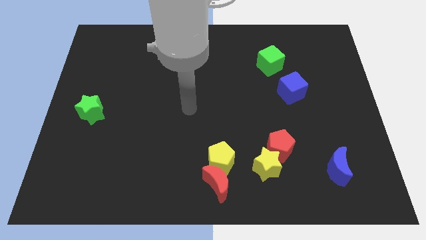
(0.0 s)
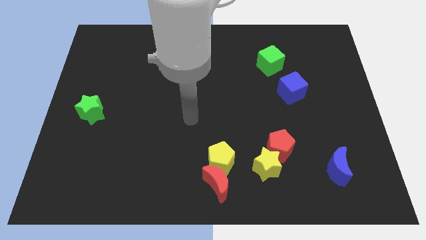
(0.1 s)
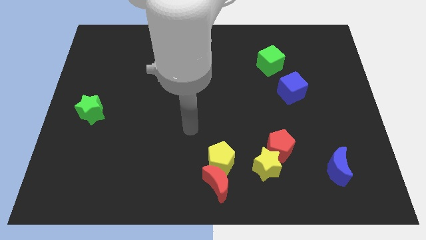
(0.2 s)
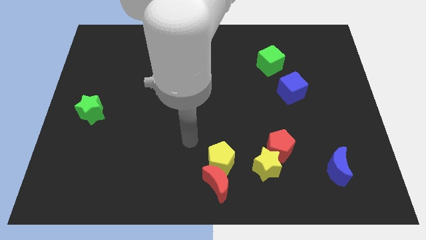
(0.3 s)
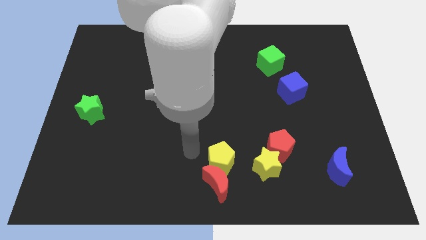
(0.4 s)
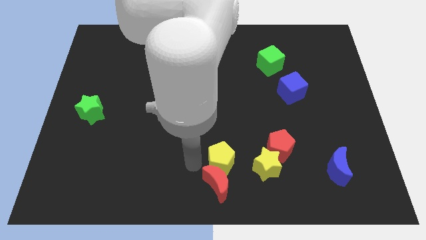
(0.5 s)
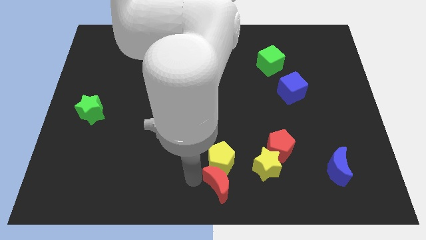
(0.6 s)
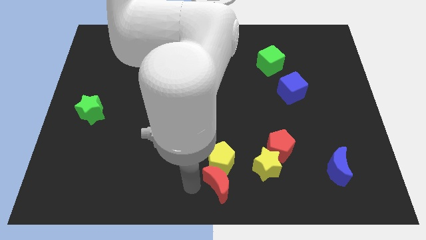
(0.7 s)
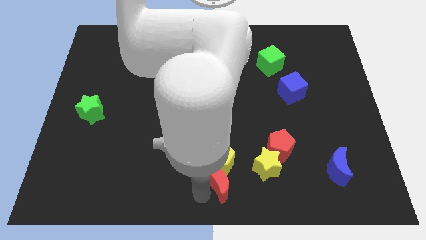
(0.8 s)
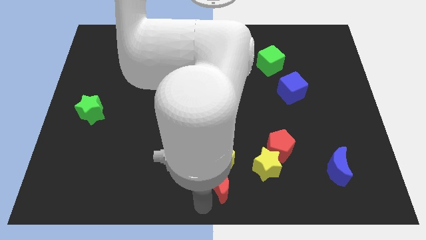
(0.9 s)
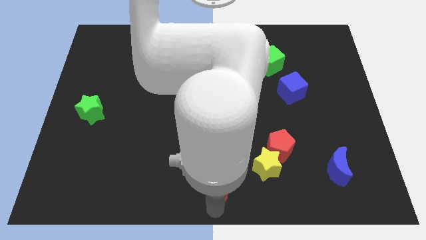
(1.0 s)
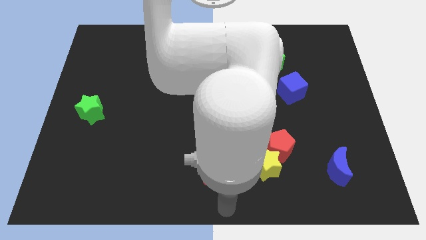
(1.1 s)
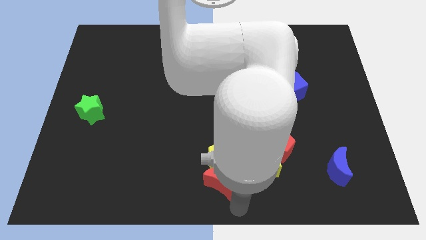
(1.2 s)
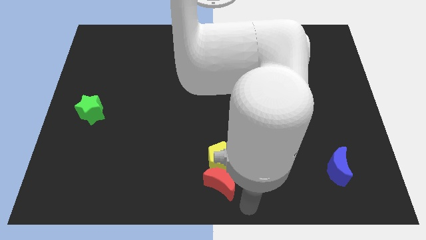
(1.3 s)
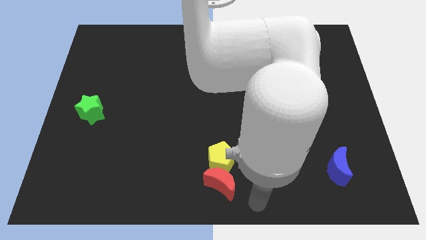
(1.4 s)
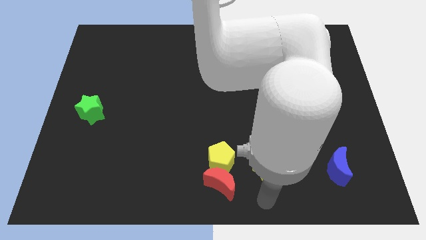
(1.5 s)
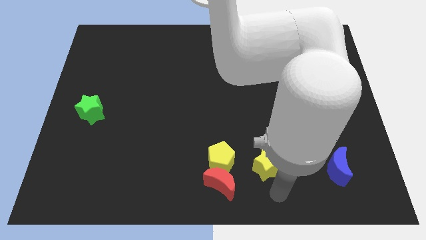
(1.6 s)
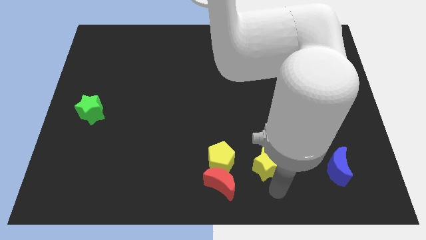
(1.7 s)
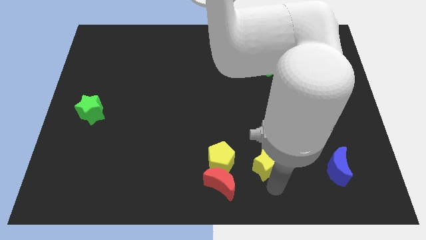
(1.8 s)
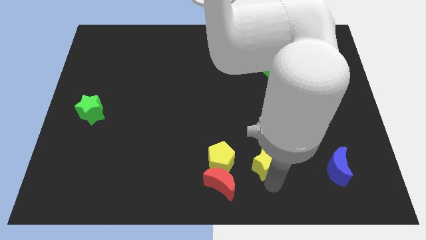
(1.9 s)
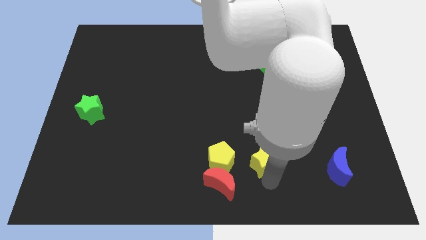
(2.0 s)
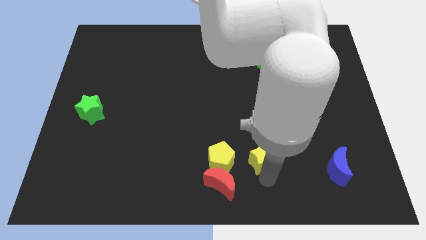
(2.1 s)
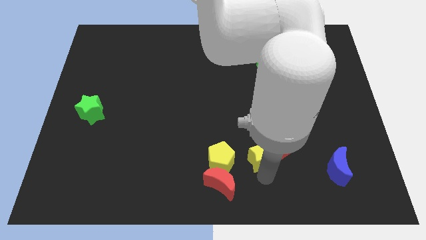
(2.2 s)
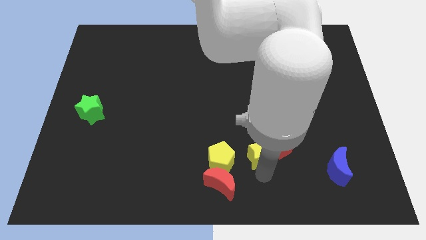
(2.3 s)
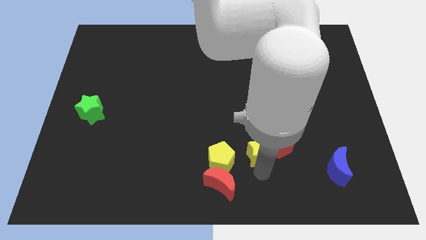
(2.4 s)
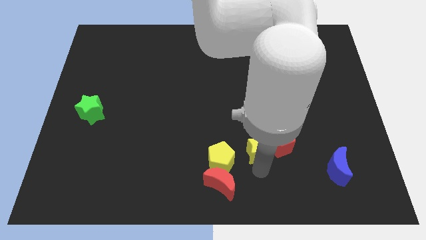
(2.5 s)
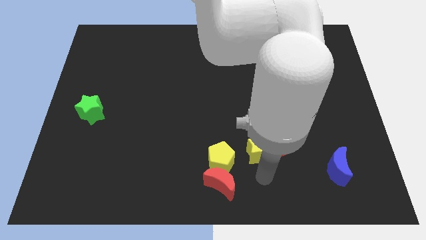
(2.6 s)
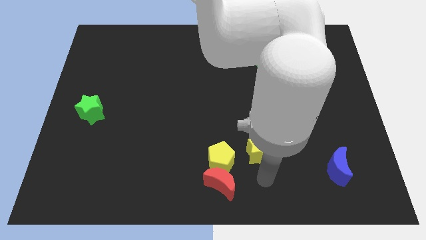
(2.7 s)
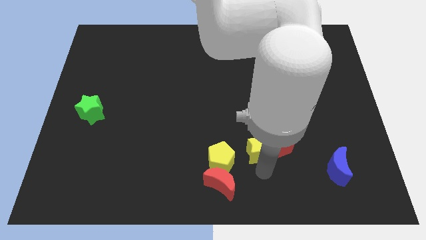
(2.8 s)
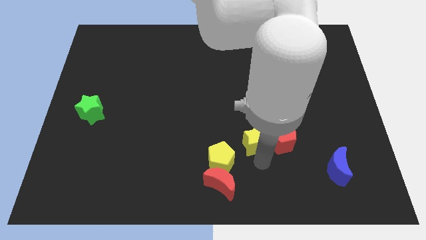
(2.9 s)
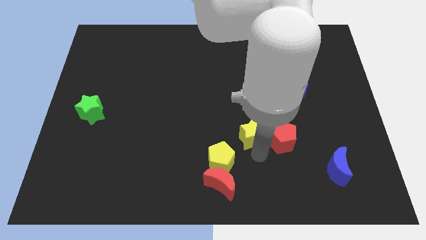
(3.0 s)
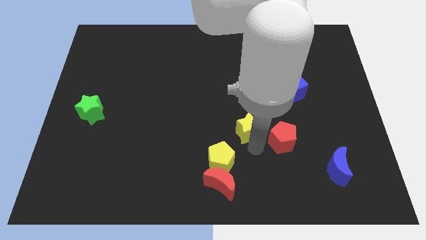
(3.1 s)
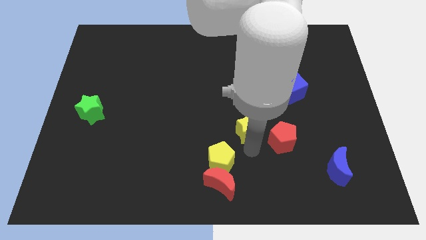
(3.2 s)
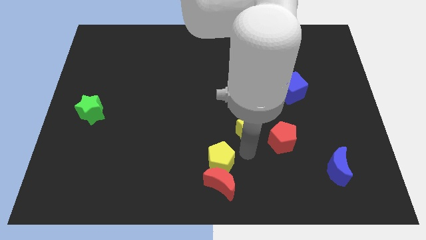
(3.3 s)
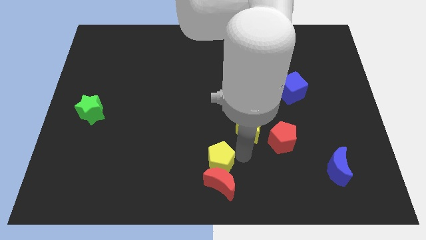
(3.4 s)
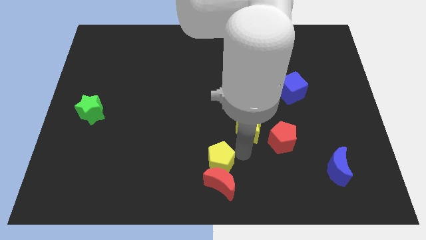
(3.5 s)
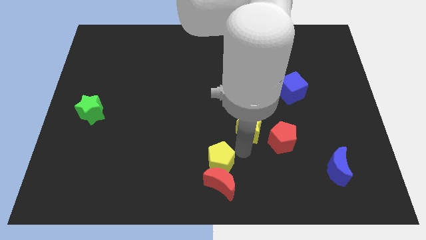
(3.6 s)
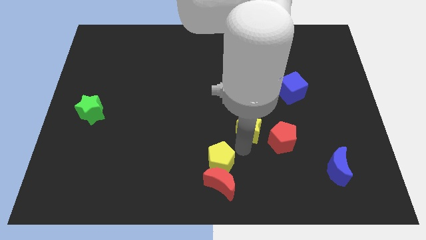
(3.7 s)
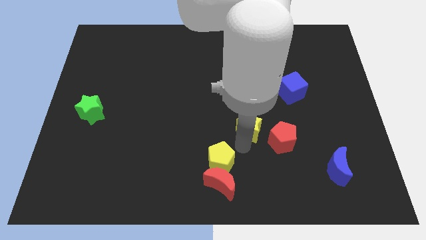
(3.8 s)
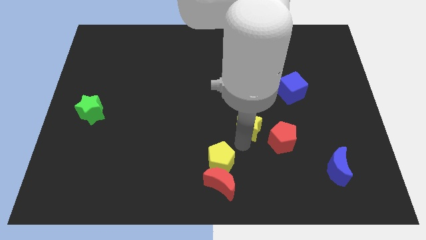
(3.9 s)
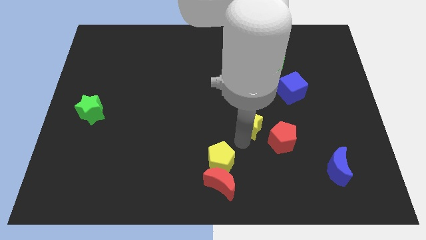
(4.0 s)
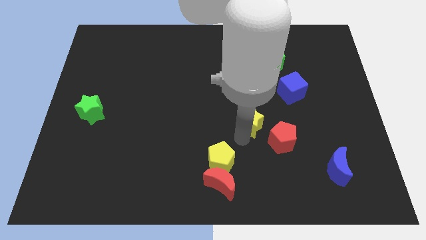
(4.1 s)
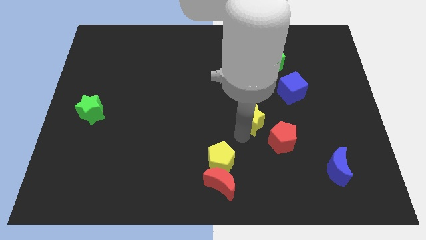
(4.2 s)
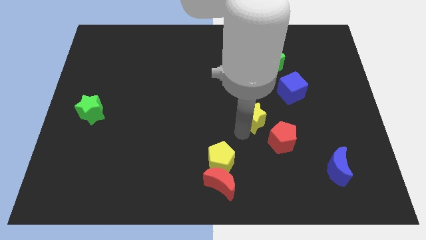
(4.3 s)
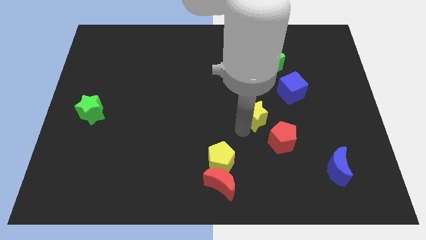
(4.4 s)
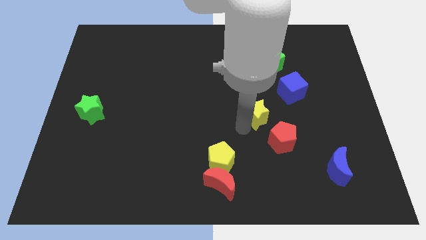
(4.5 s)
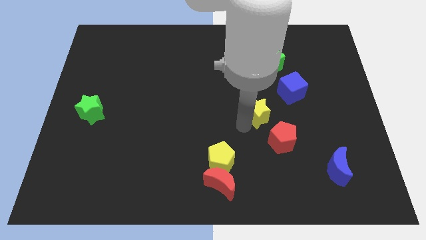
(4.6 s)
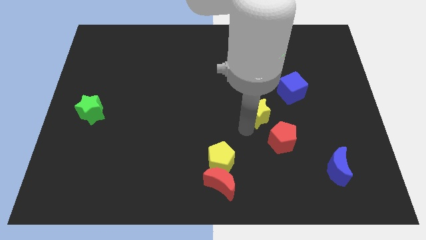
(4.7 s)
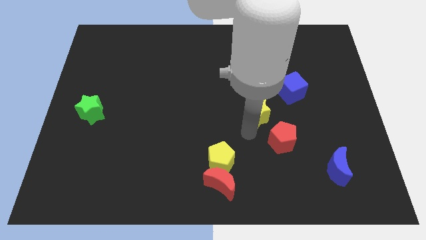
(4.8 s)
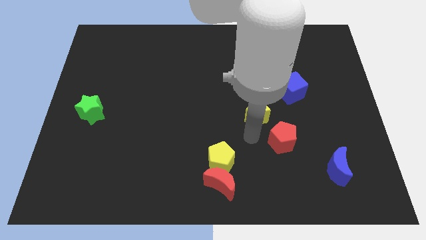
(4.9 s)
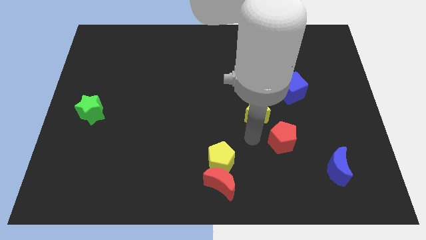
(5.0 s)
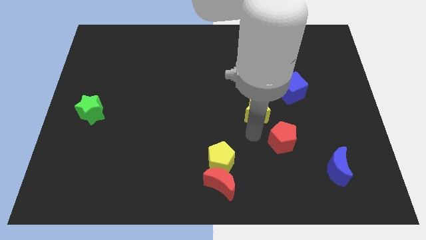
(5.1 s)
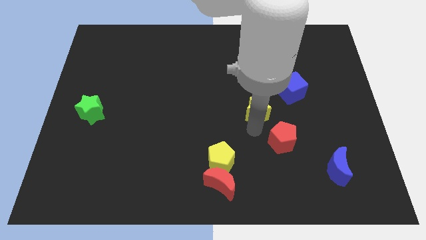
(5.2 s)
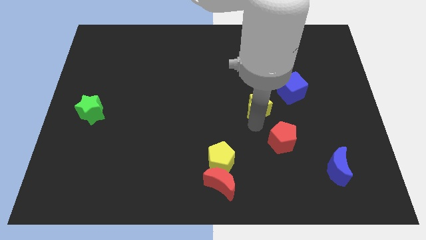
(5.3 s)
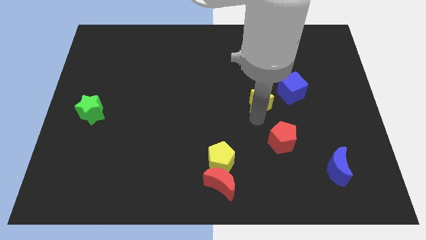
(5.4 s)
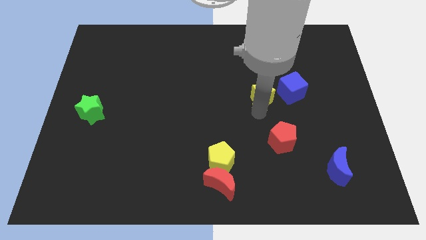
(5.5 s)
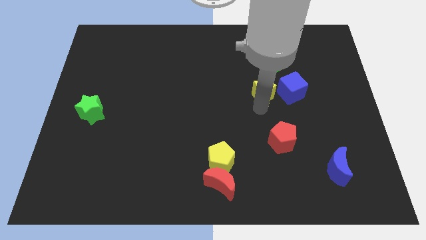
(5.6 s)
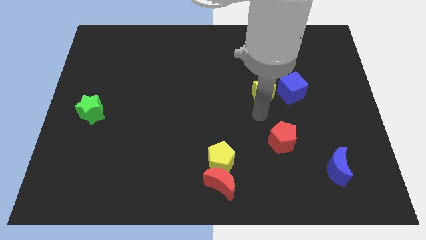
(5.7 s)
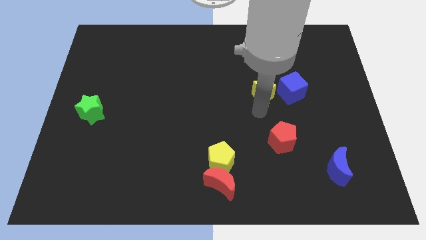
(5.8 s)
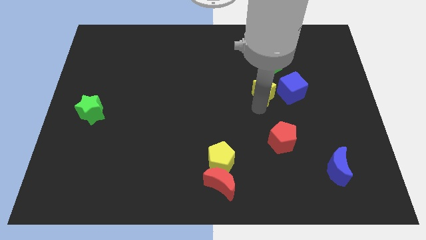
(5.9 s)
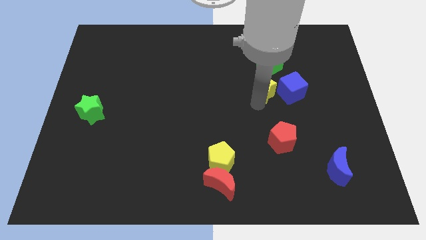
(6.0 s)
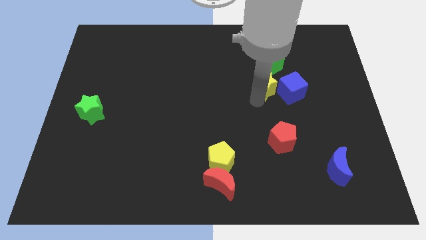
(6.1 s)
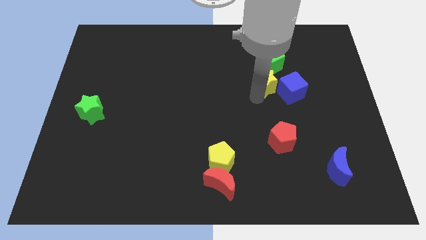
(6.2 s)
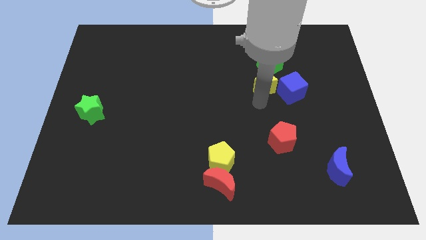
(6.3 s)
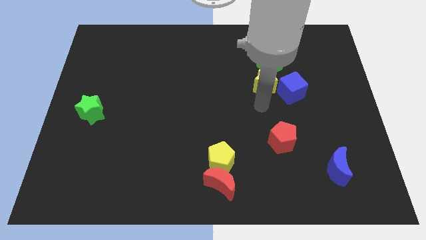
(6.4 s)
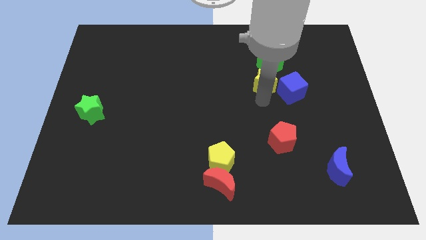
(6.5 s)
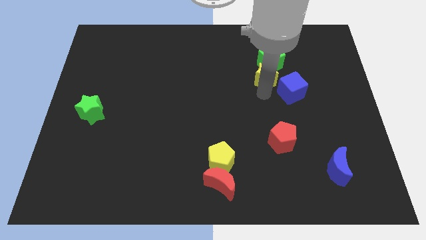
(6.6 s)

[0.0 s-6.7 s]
move the yellow star towards the green cube

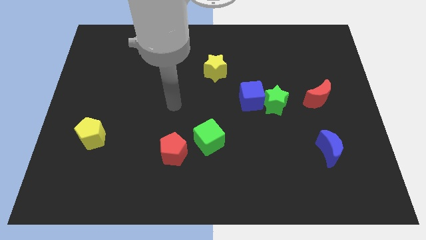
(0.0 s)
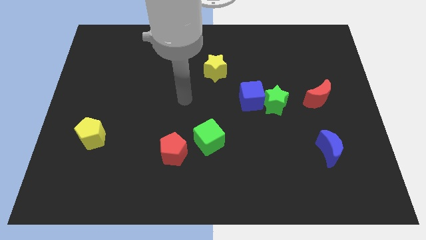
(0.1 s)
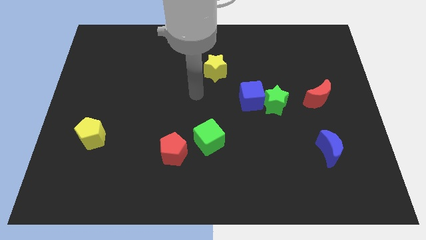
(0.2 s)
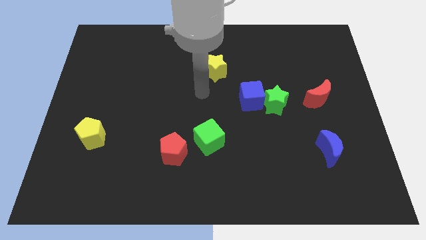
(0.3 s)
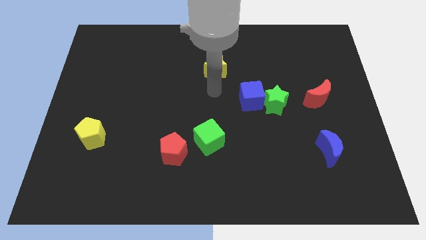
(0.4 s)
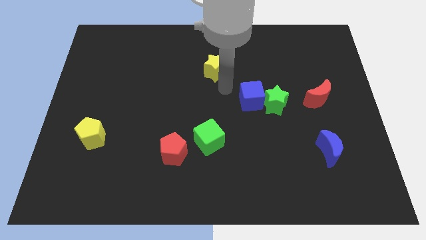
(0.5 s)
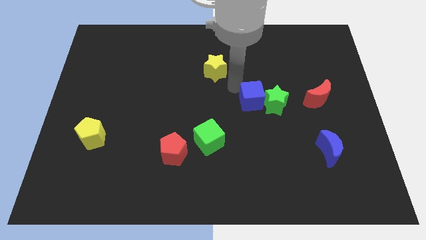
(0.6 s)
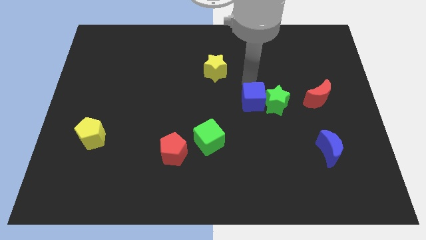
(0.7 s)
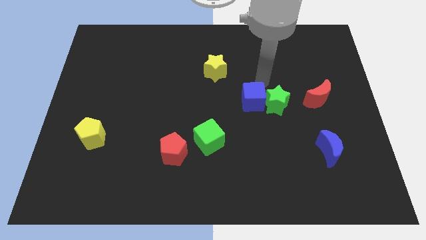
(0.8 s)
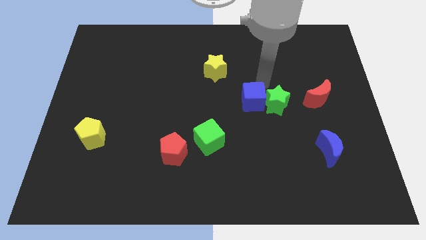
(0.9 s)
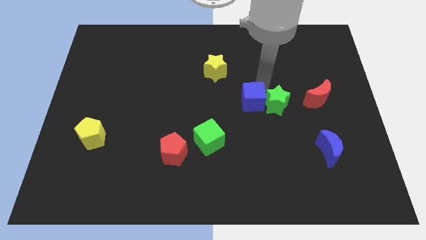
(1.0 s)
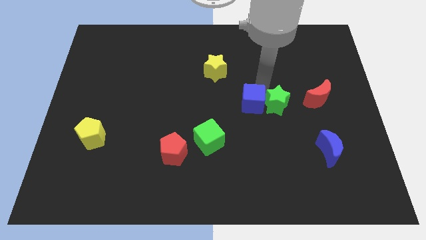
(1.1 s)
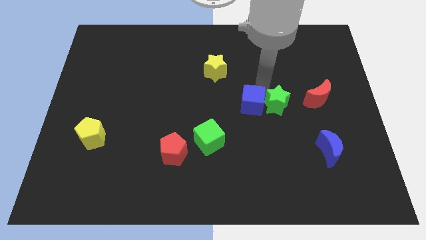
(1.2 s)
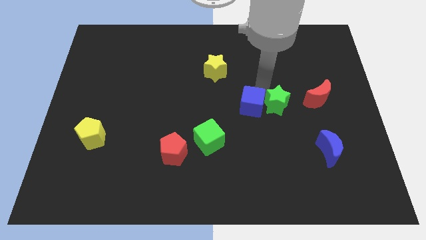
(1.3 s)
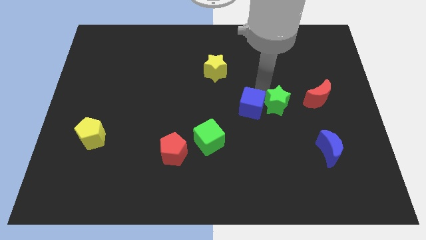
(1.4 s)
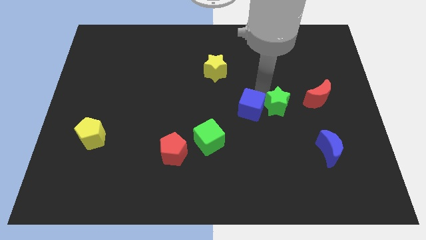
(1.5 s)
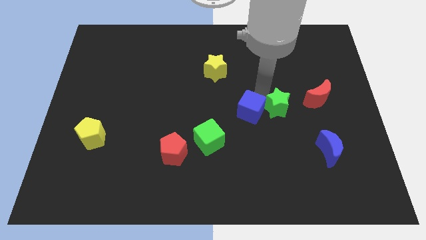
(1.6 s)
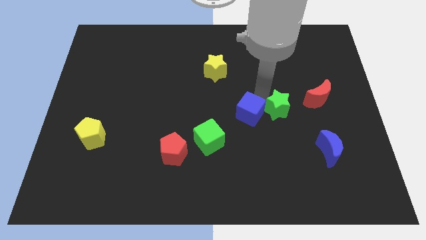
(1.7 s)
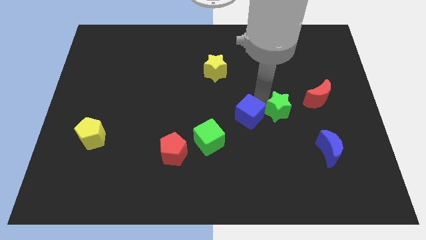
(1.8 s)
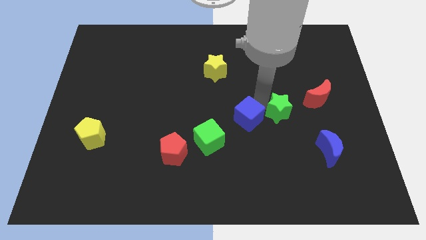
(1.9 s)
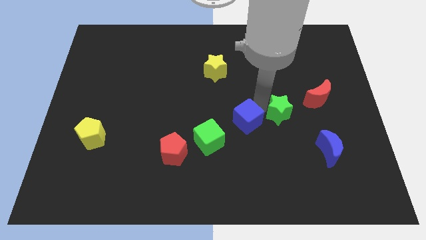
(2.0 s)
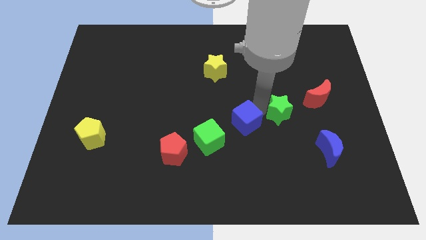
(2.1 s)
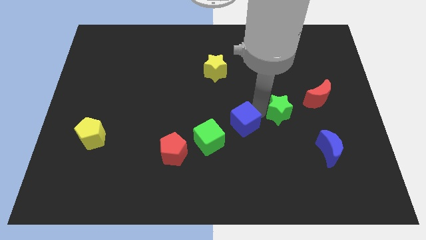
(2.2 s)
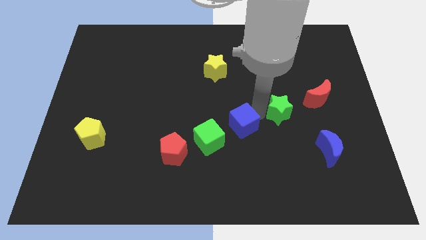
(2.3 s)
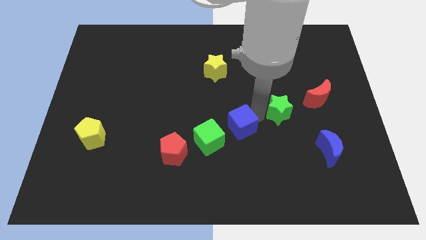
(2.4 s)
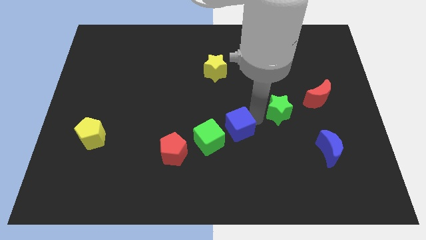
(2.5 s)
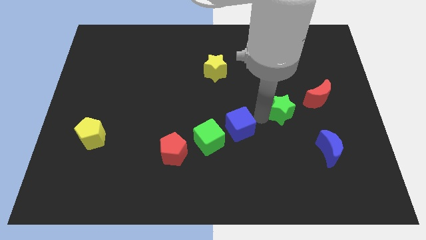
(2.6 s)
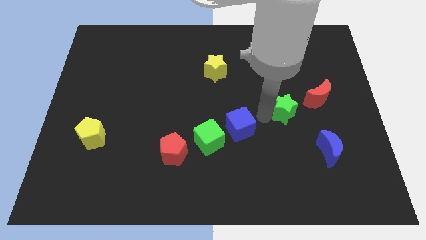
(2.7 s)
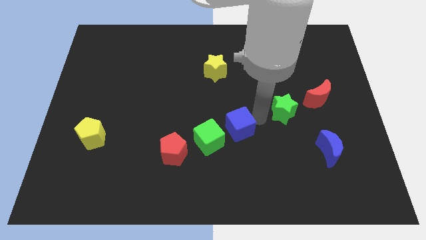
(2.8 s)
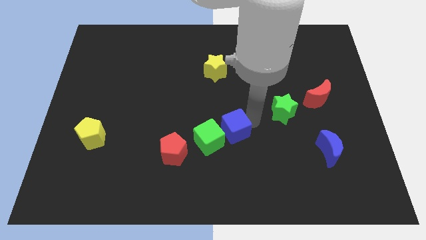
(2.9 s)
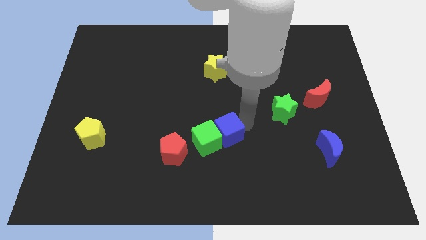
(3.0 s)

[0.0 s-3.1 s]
push the blue cube next to the green cube
